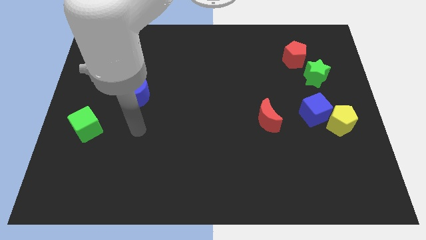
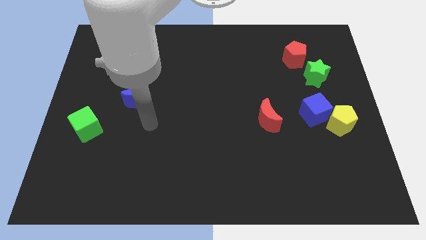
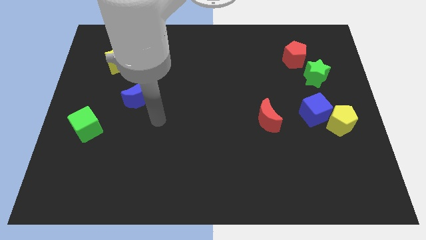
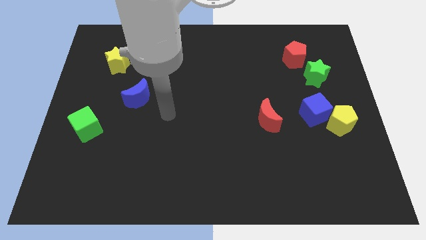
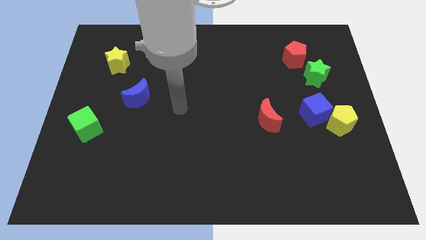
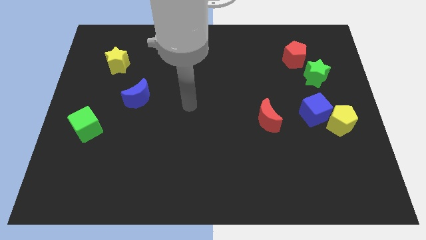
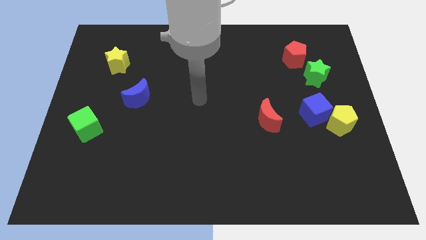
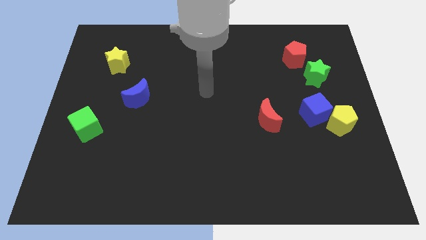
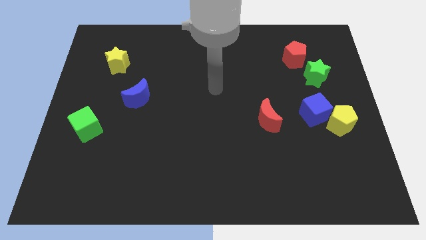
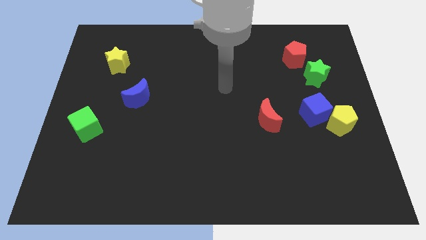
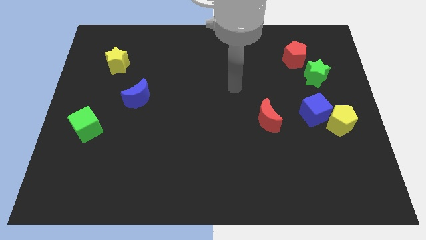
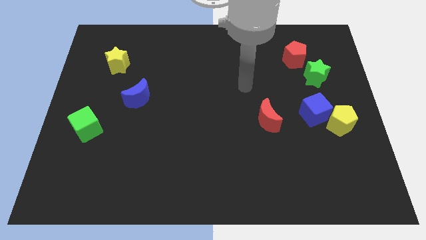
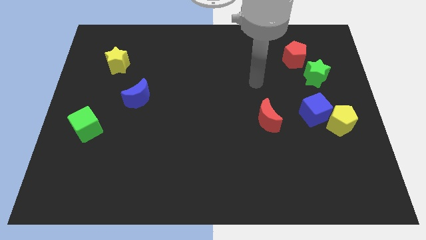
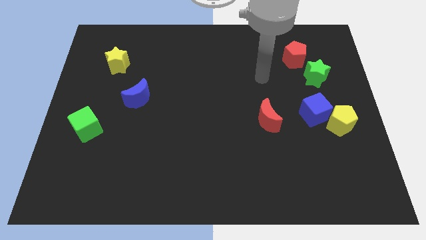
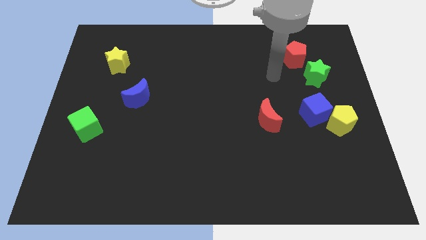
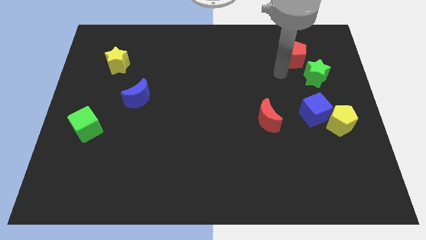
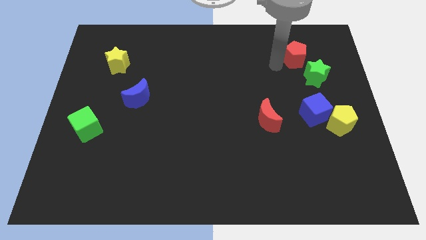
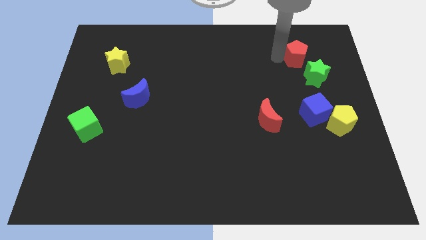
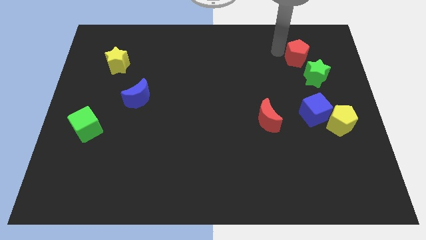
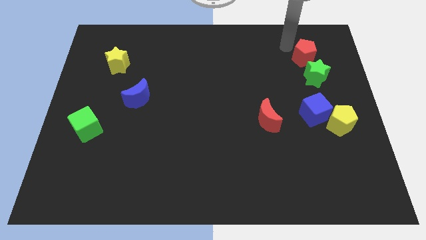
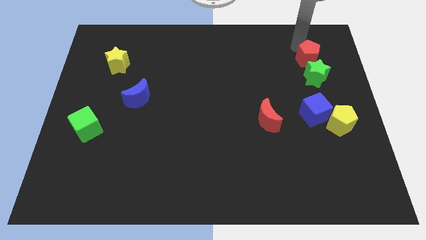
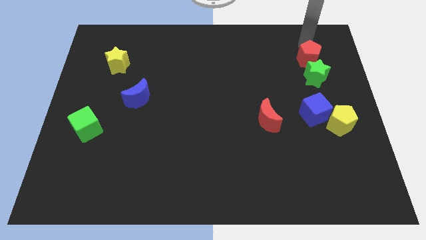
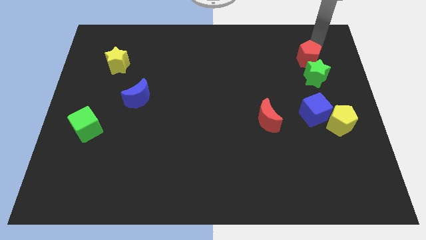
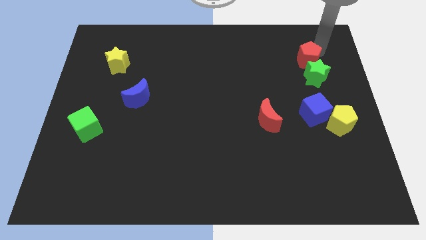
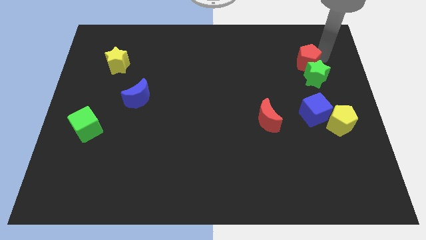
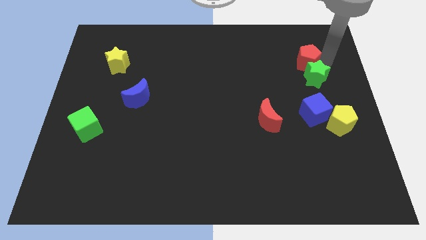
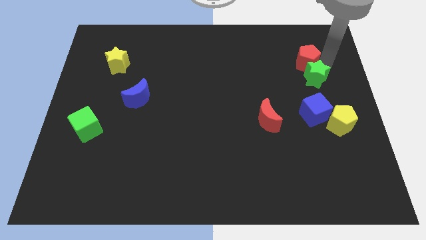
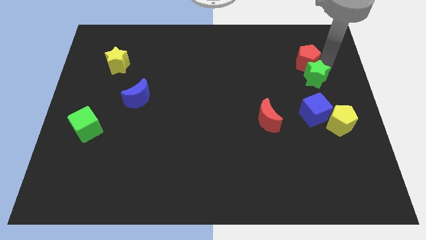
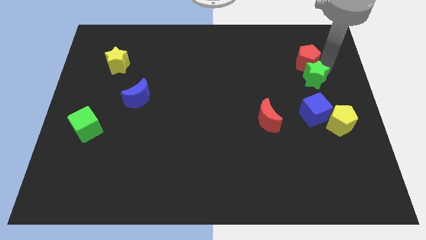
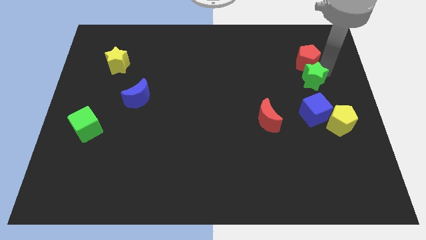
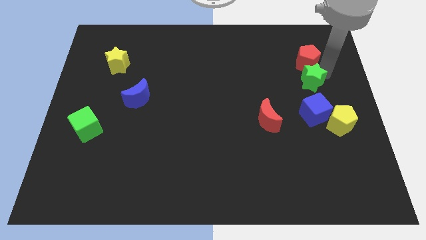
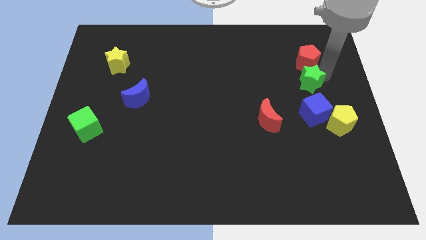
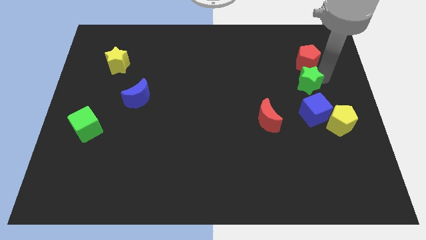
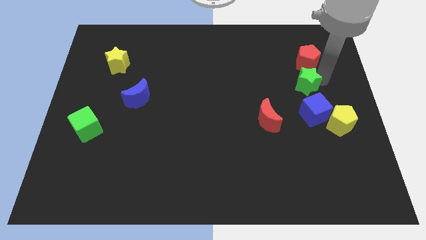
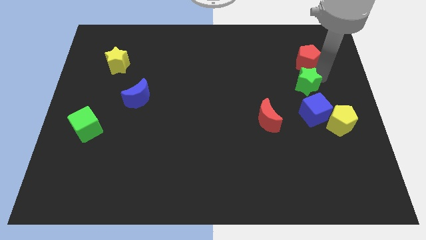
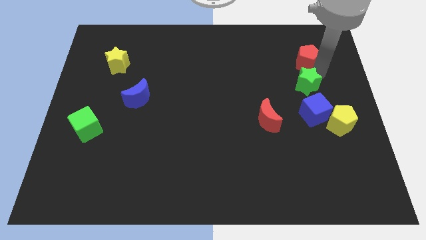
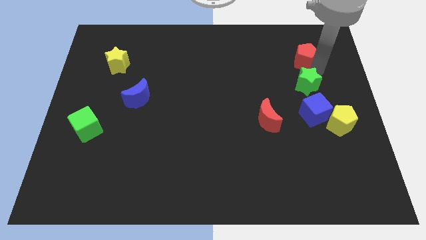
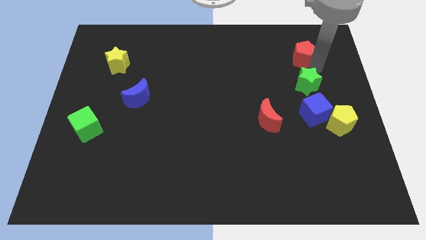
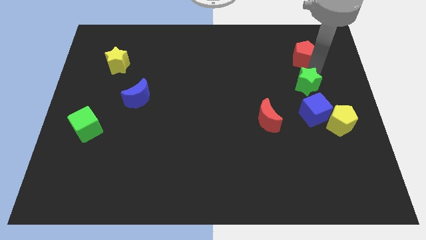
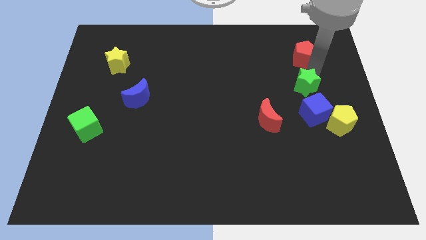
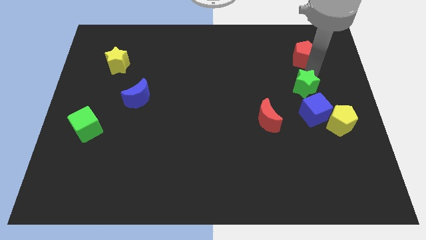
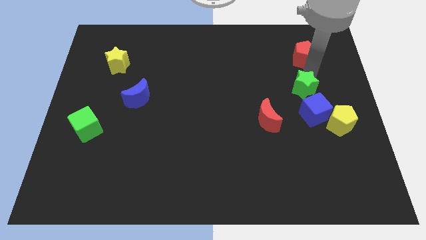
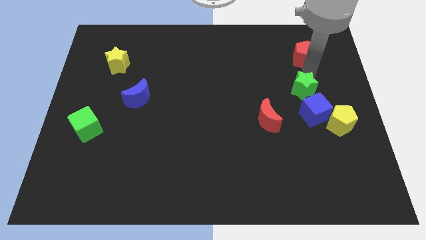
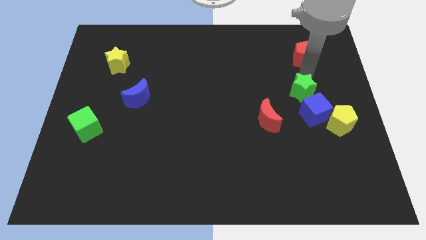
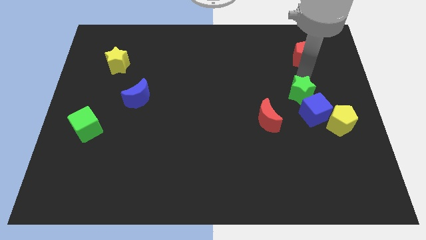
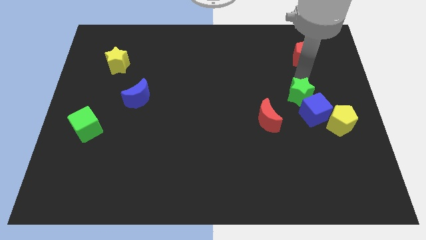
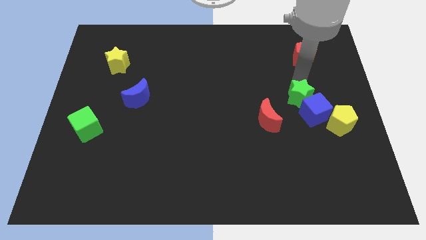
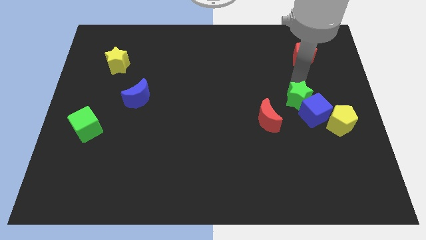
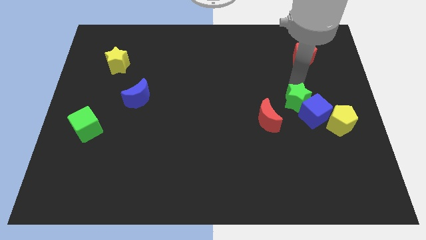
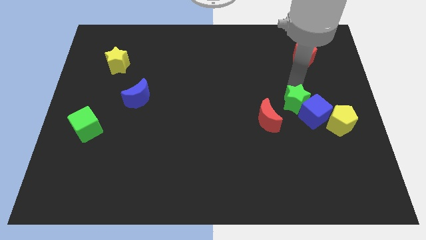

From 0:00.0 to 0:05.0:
slightly slide the green star down

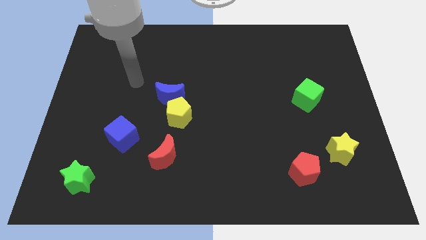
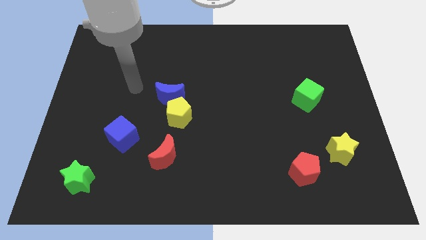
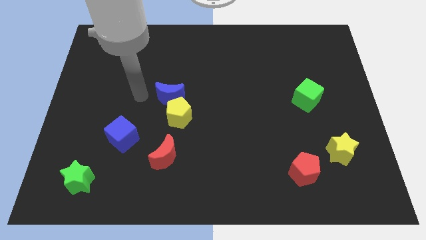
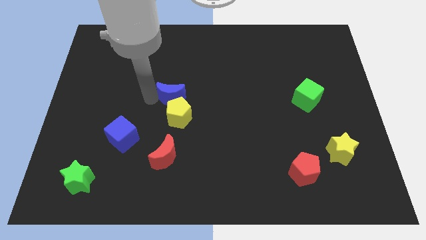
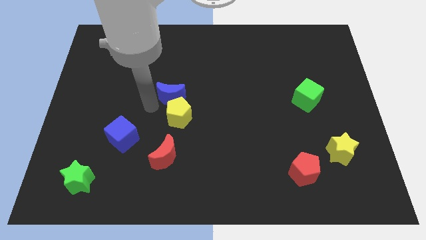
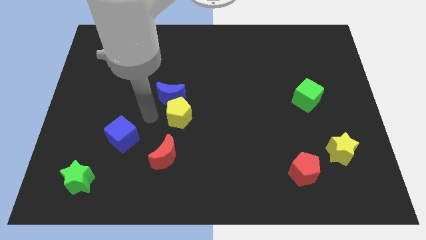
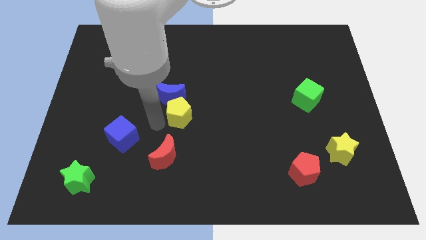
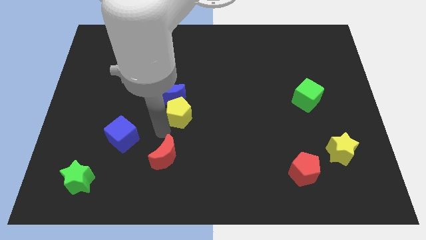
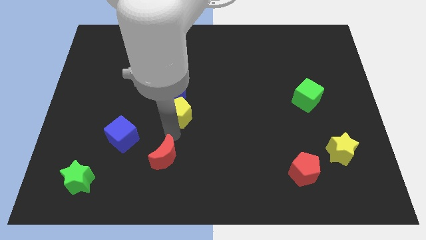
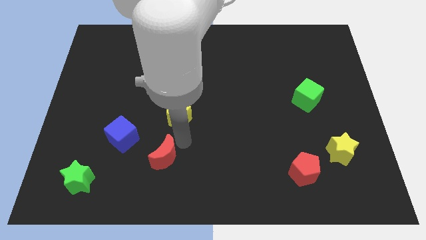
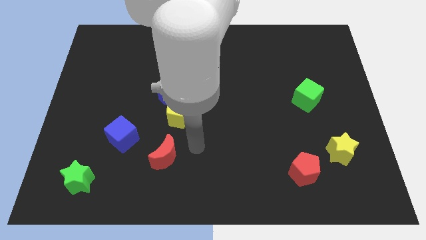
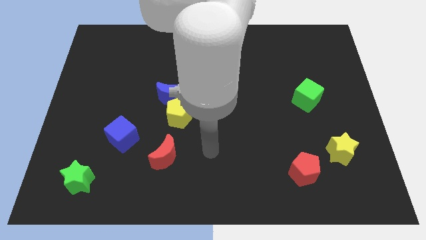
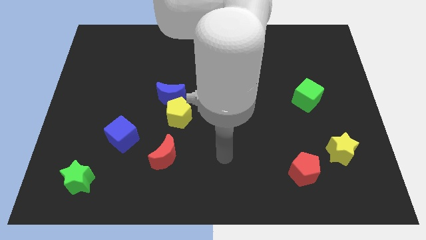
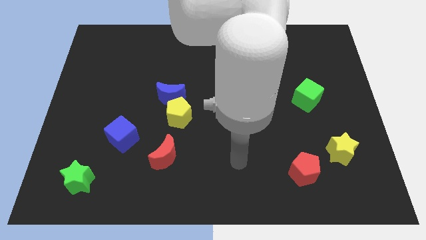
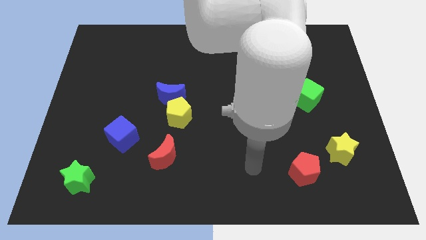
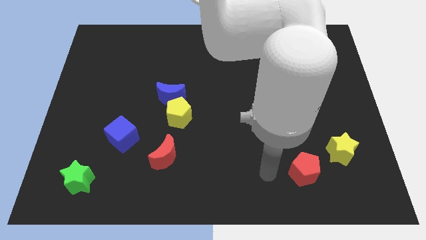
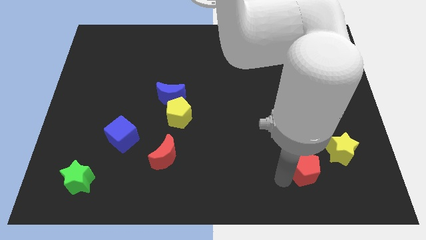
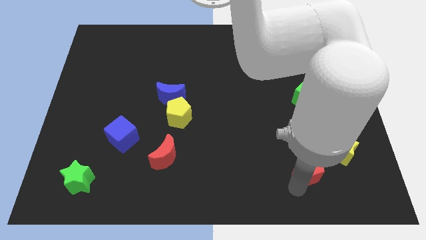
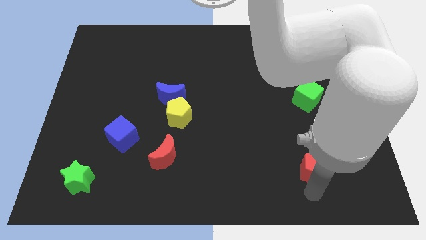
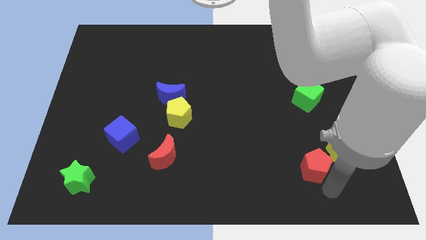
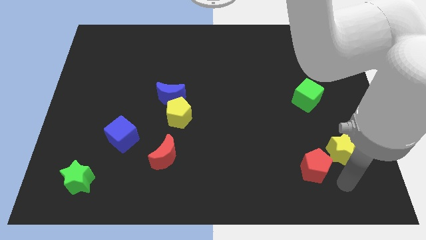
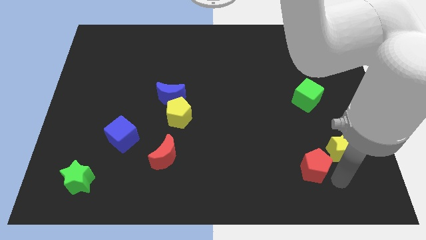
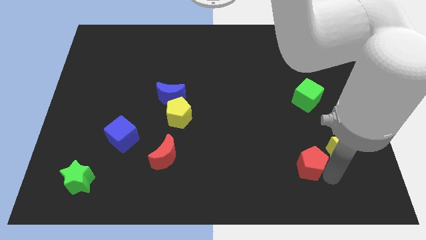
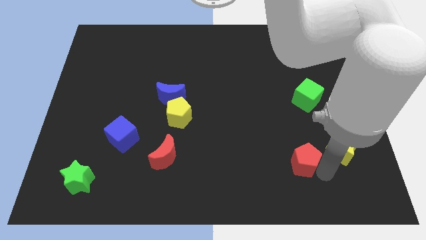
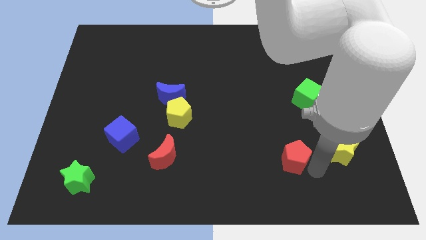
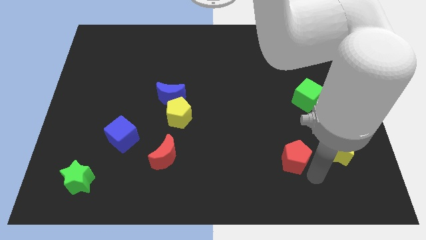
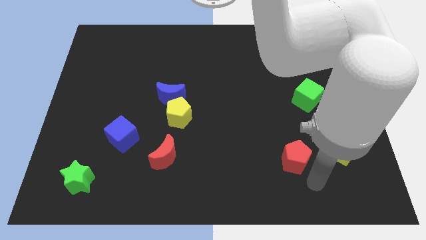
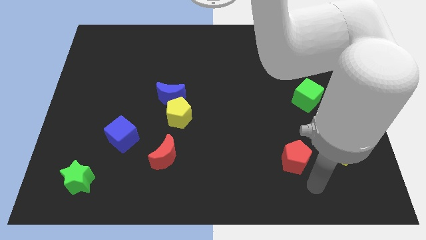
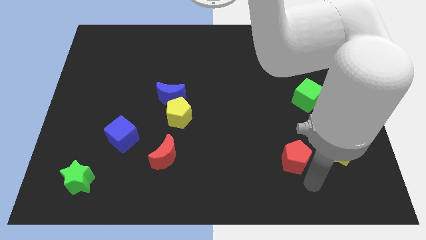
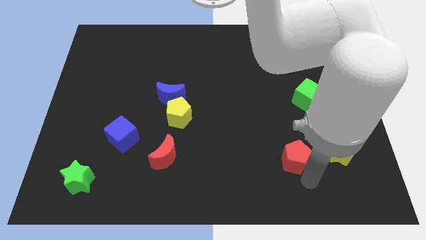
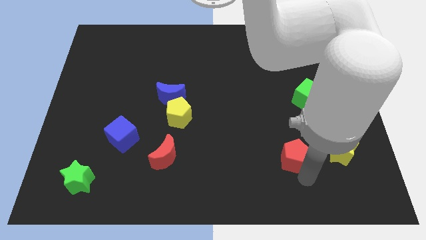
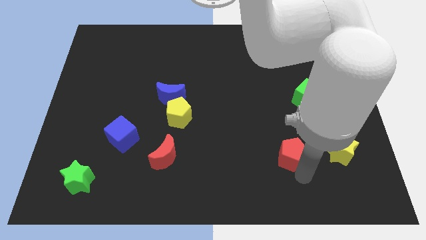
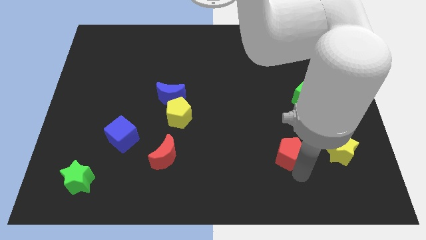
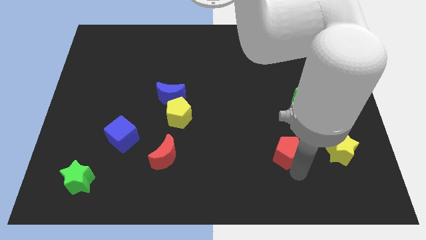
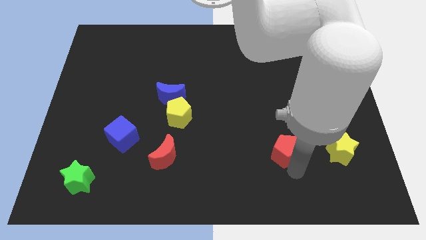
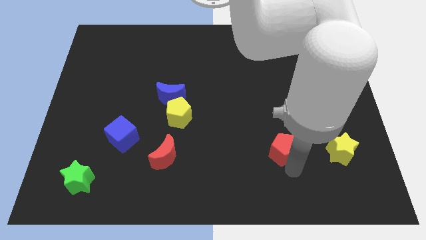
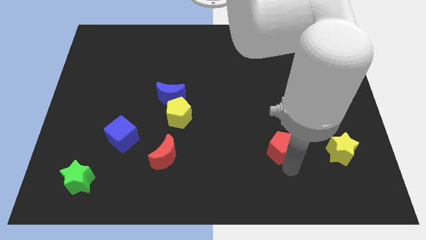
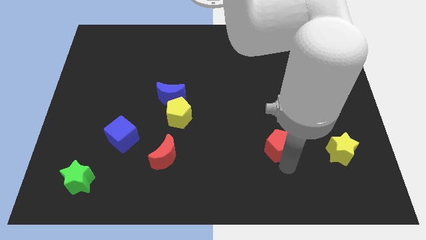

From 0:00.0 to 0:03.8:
move the red pentagon a little bit diagonally up and to the left
